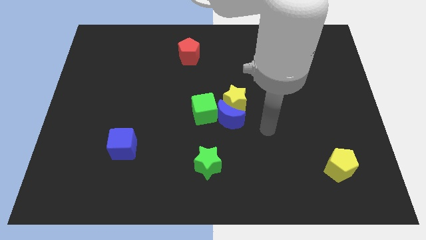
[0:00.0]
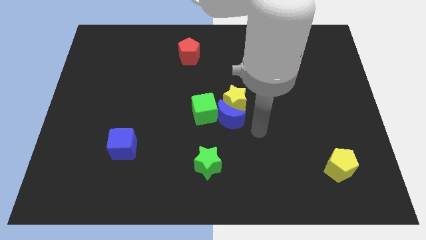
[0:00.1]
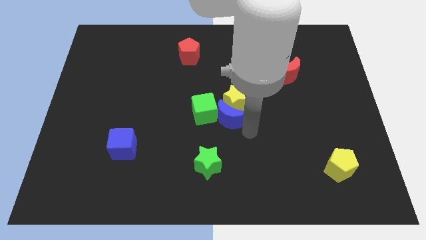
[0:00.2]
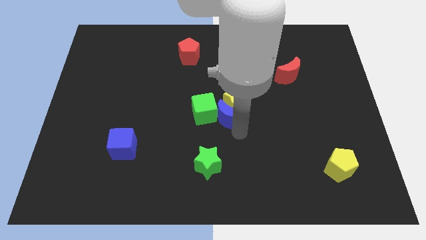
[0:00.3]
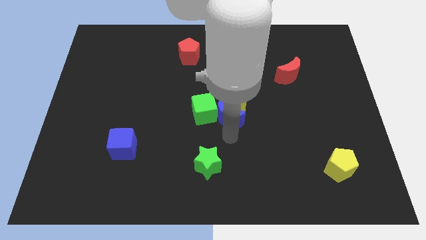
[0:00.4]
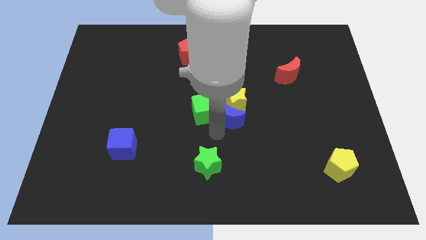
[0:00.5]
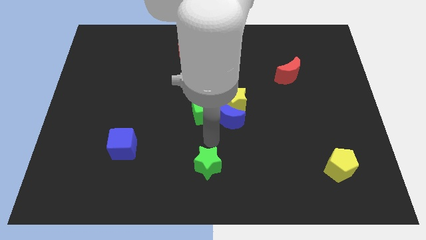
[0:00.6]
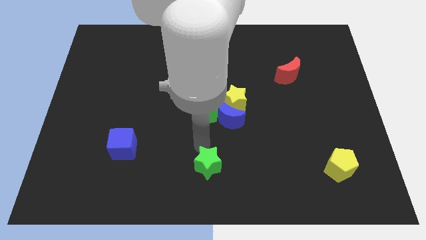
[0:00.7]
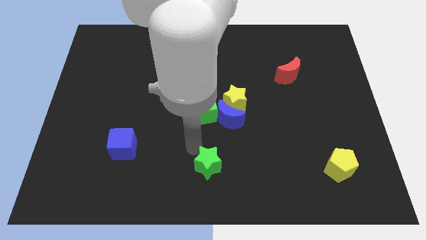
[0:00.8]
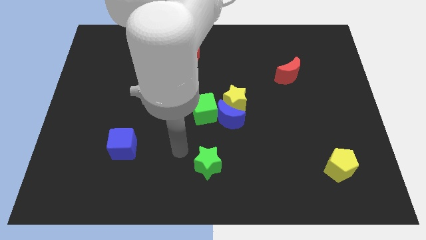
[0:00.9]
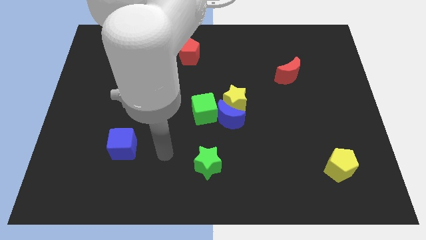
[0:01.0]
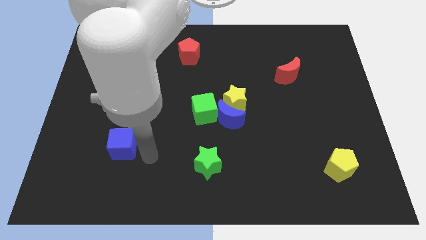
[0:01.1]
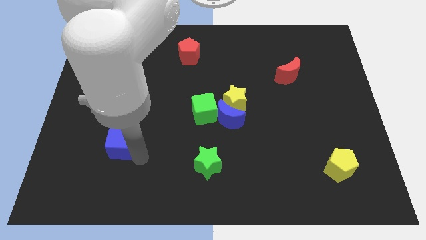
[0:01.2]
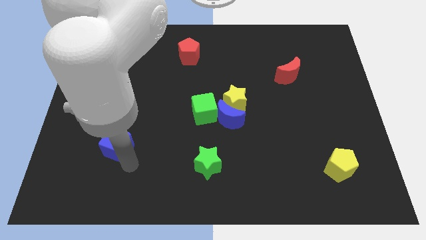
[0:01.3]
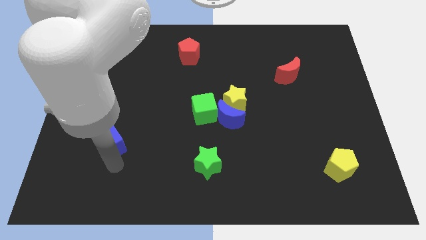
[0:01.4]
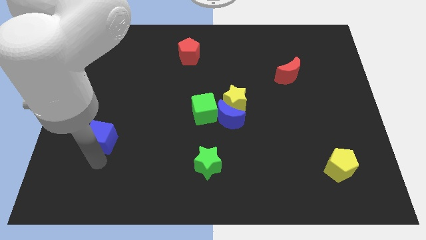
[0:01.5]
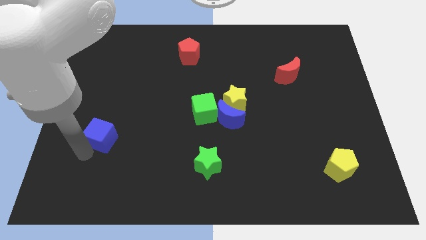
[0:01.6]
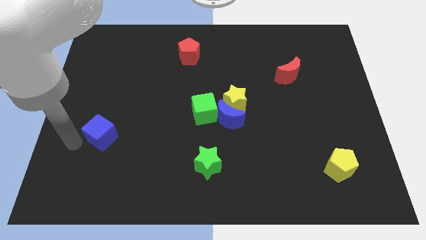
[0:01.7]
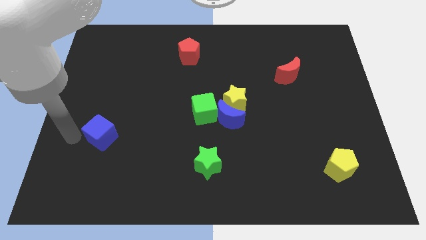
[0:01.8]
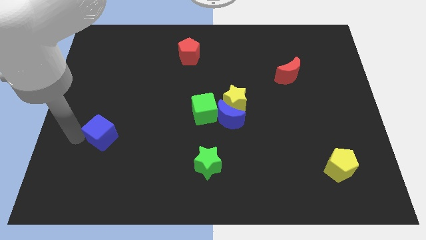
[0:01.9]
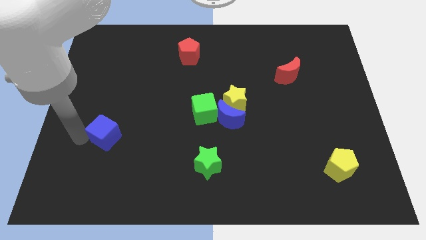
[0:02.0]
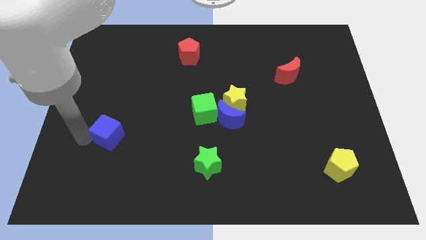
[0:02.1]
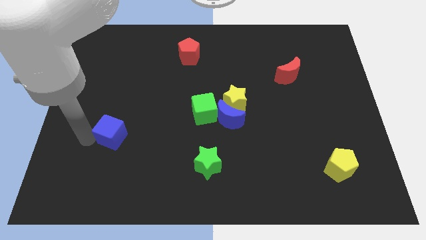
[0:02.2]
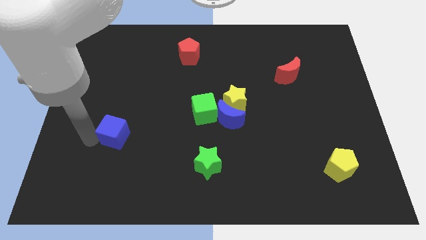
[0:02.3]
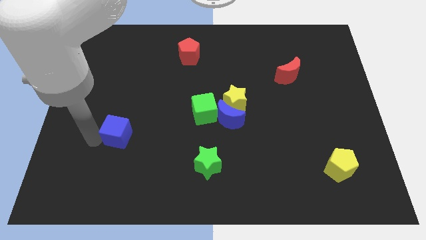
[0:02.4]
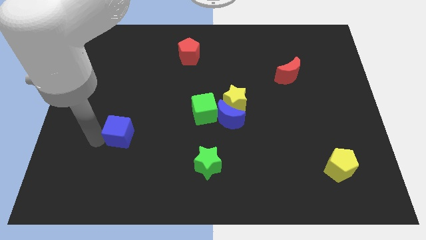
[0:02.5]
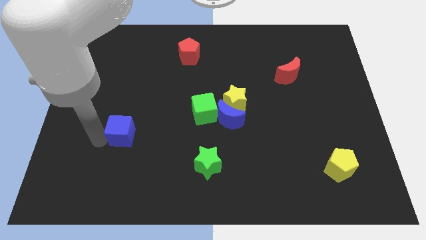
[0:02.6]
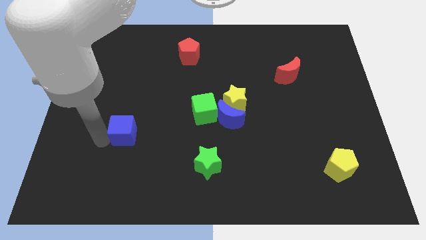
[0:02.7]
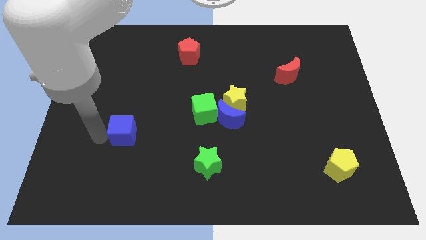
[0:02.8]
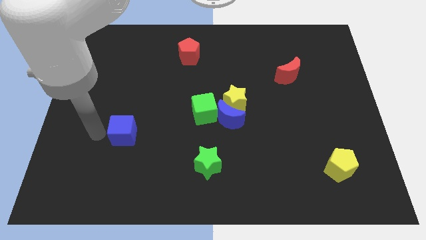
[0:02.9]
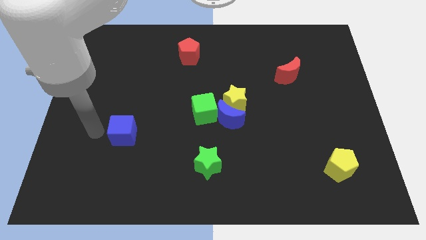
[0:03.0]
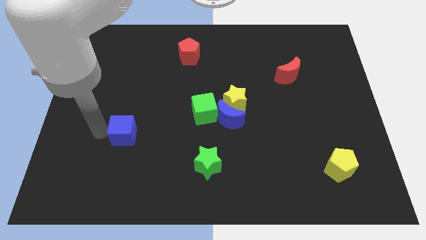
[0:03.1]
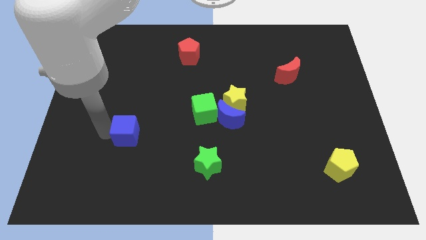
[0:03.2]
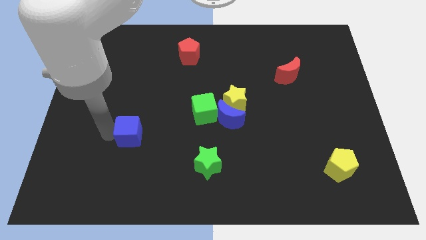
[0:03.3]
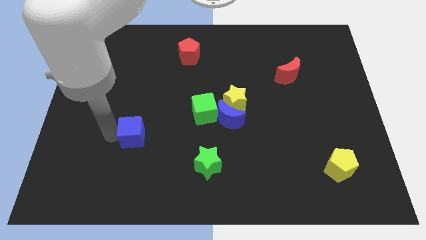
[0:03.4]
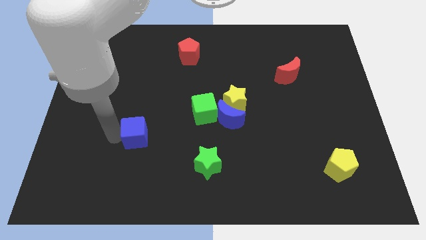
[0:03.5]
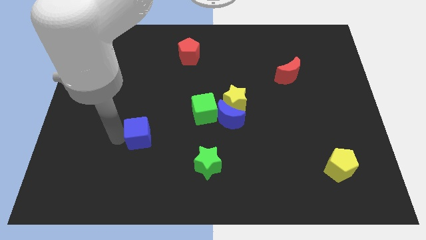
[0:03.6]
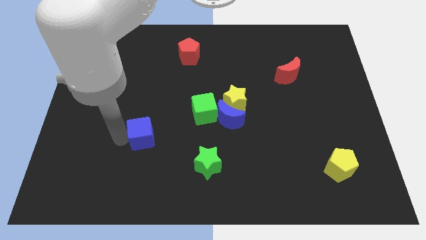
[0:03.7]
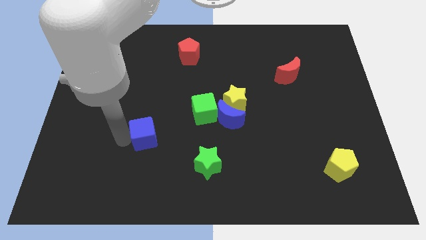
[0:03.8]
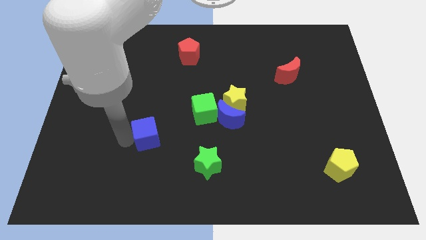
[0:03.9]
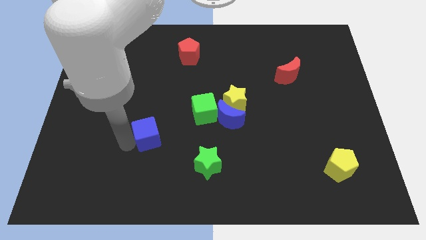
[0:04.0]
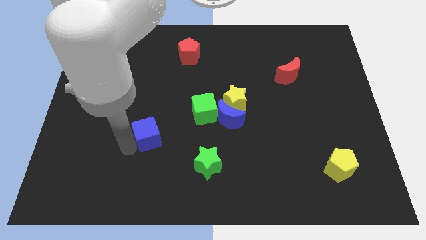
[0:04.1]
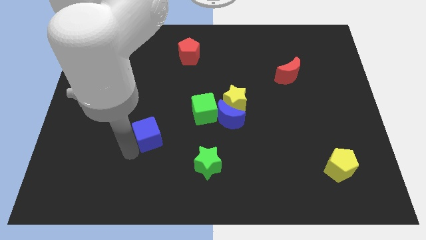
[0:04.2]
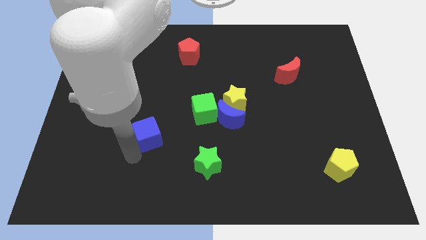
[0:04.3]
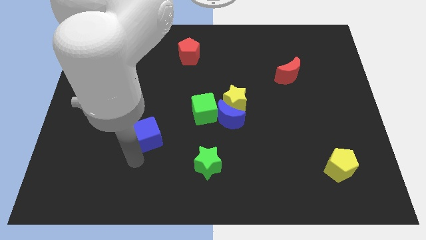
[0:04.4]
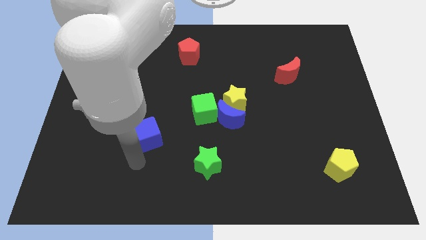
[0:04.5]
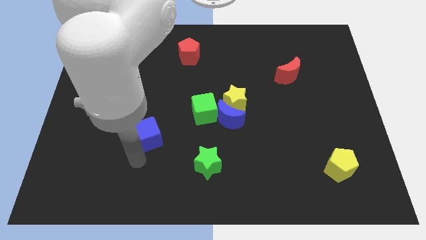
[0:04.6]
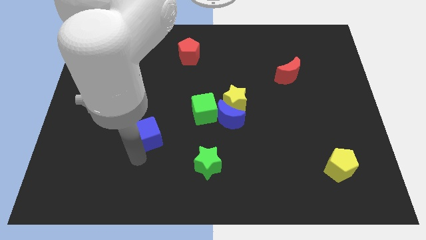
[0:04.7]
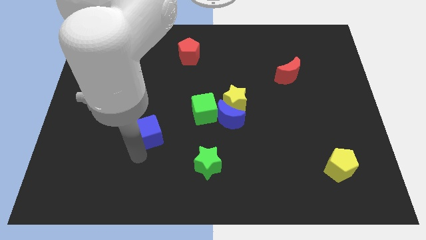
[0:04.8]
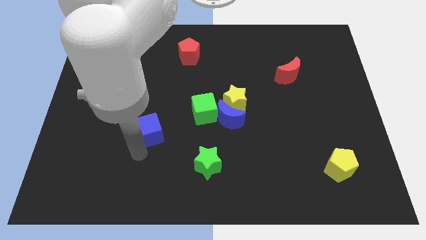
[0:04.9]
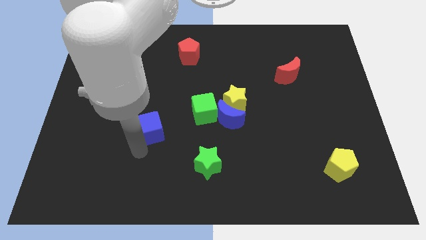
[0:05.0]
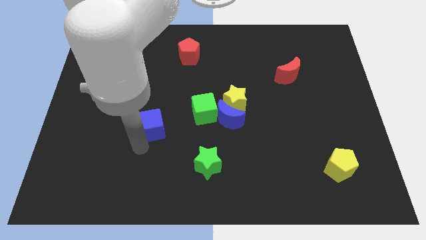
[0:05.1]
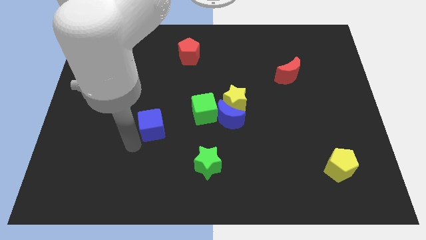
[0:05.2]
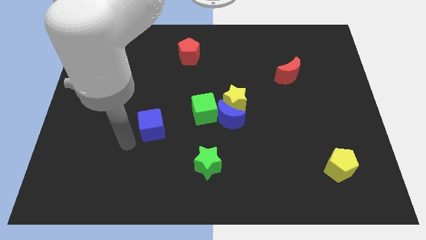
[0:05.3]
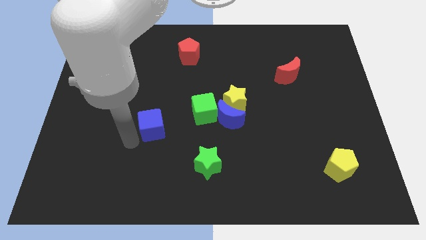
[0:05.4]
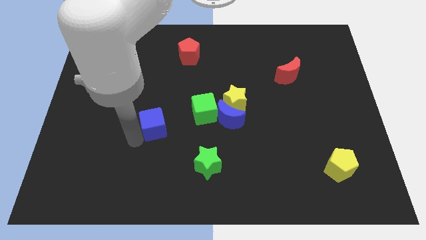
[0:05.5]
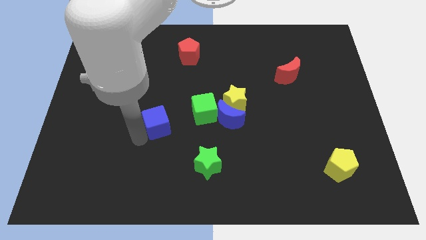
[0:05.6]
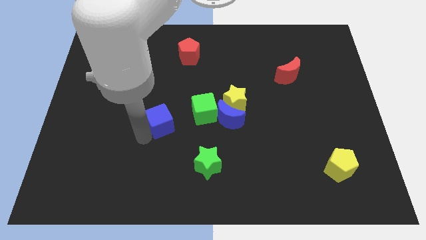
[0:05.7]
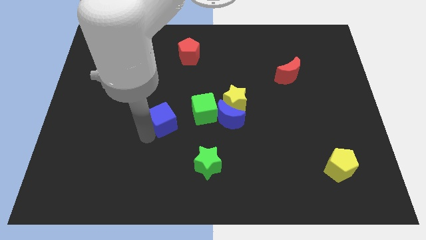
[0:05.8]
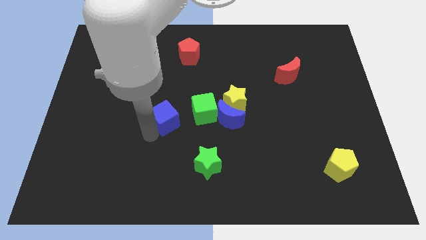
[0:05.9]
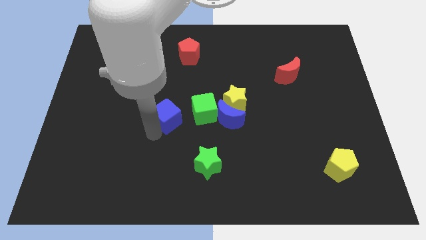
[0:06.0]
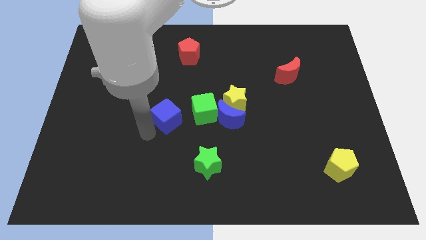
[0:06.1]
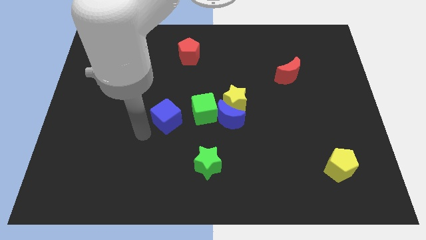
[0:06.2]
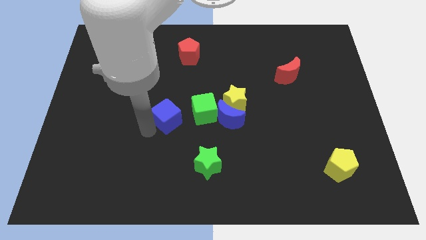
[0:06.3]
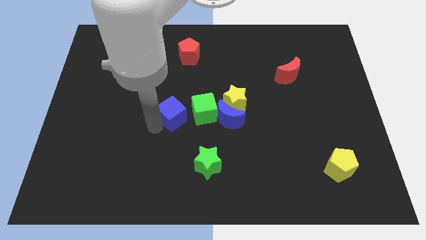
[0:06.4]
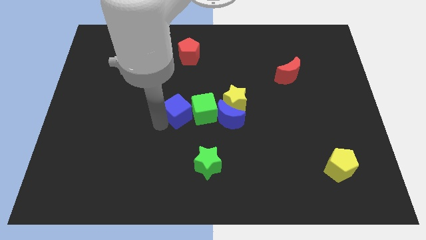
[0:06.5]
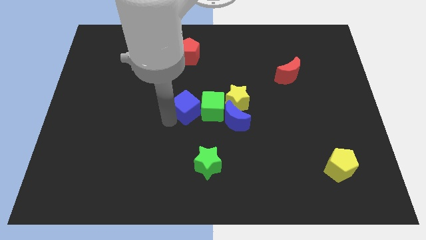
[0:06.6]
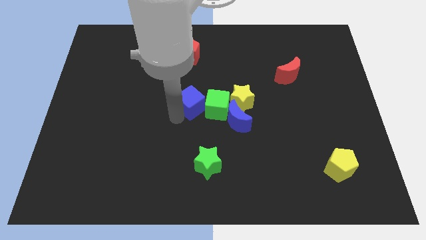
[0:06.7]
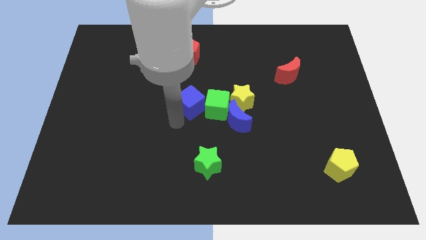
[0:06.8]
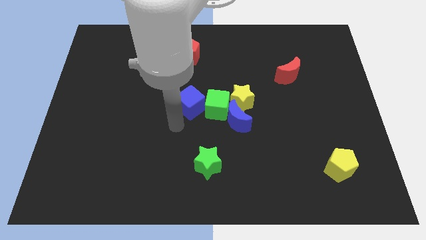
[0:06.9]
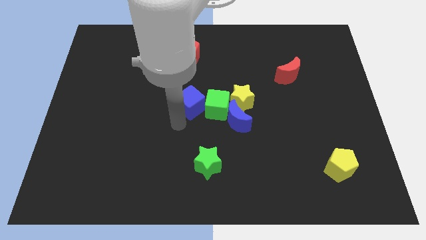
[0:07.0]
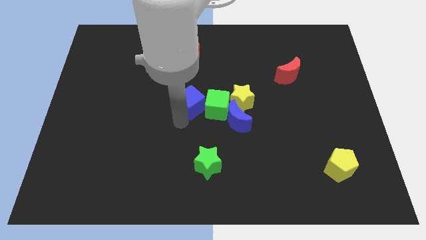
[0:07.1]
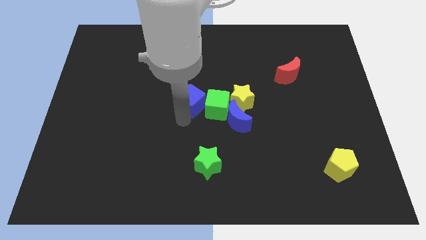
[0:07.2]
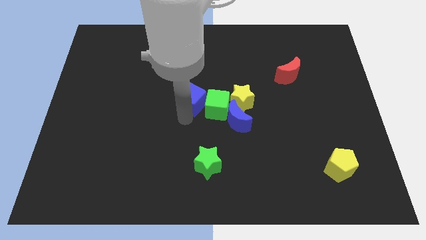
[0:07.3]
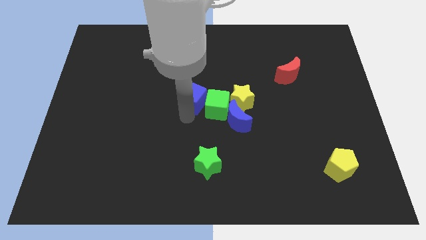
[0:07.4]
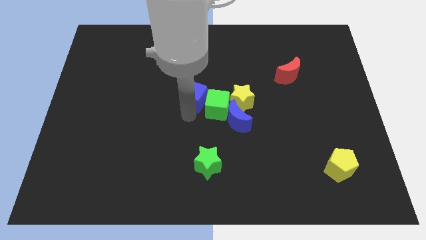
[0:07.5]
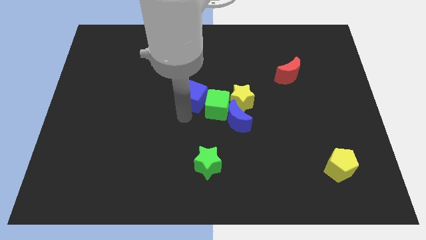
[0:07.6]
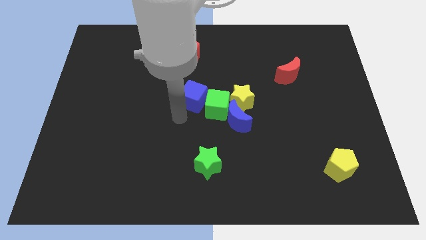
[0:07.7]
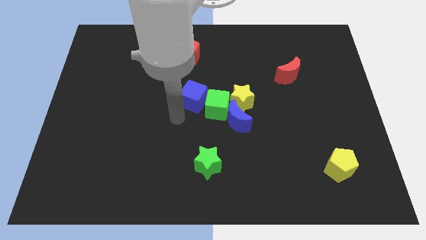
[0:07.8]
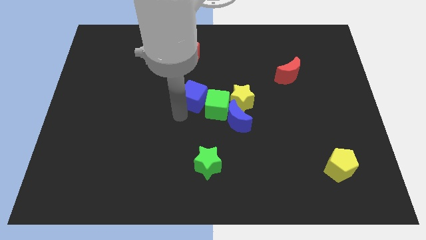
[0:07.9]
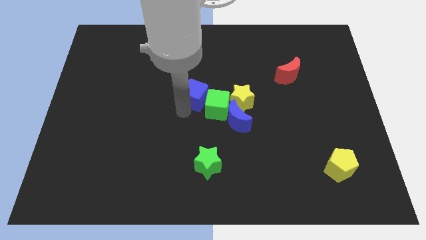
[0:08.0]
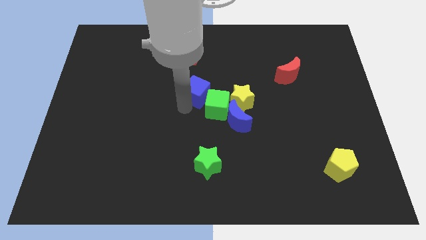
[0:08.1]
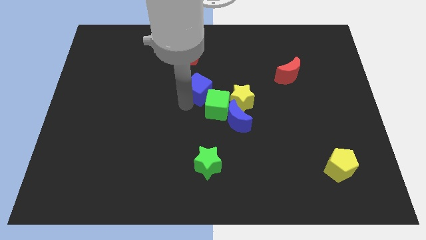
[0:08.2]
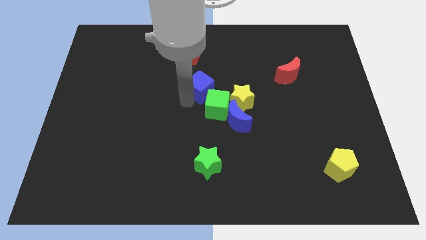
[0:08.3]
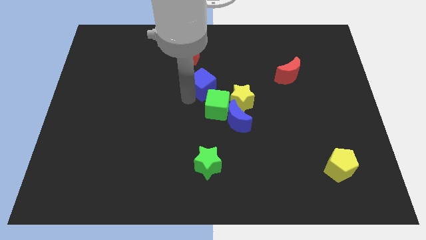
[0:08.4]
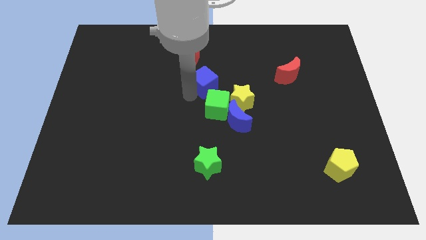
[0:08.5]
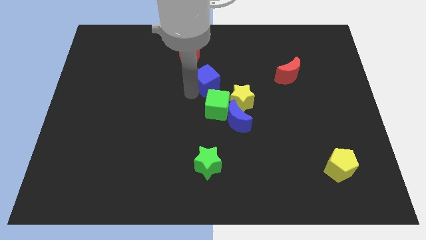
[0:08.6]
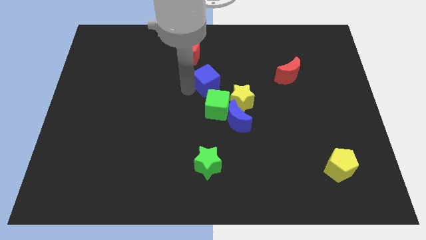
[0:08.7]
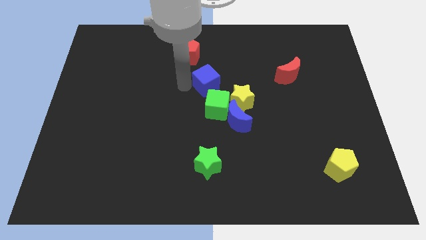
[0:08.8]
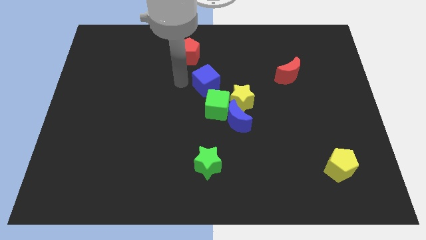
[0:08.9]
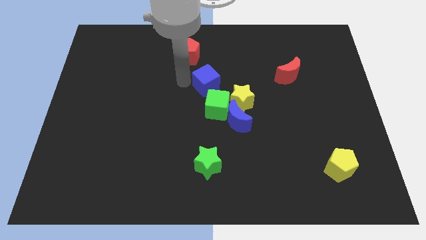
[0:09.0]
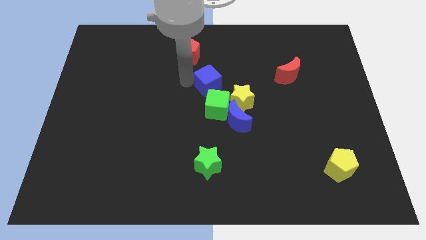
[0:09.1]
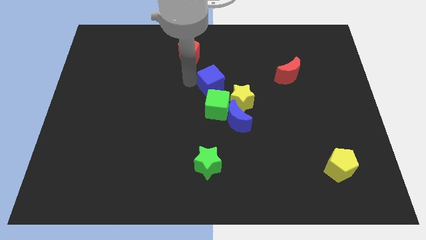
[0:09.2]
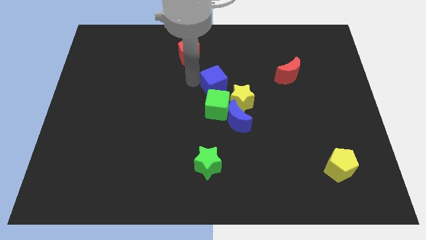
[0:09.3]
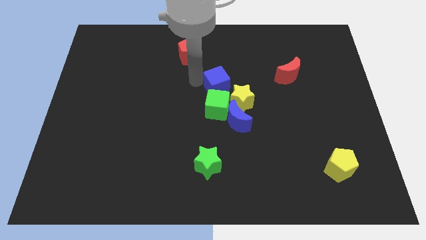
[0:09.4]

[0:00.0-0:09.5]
put the blue cube to the top of the blue moon
